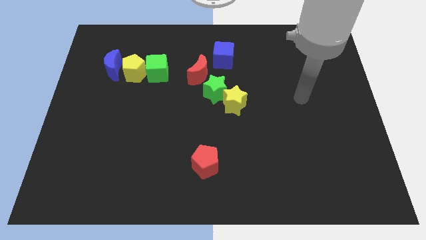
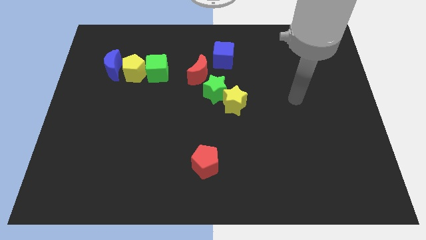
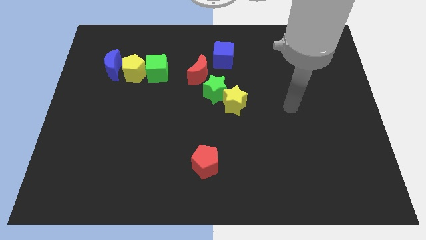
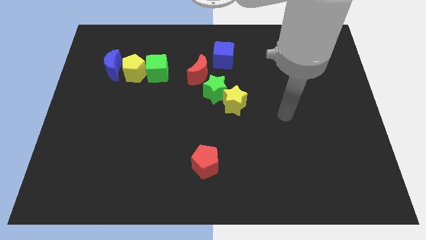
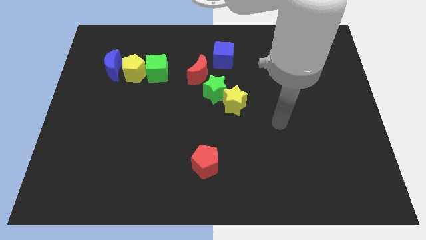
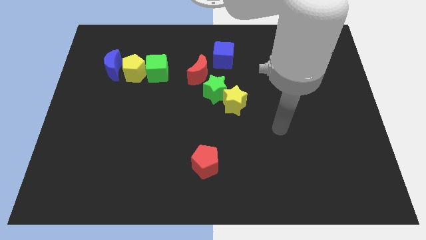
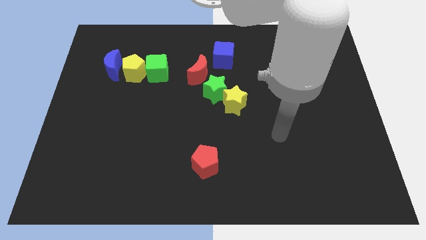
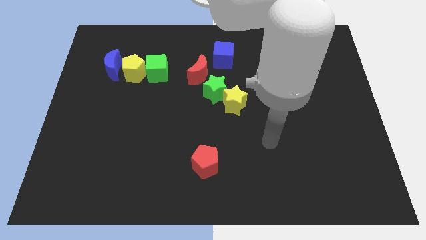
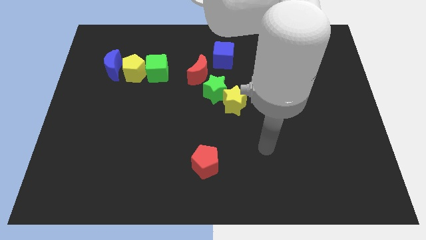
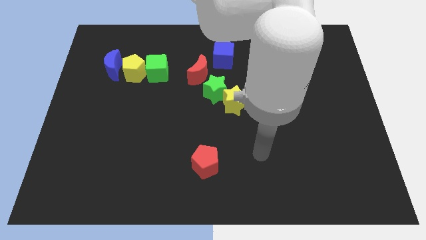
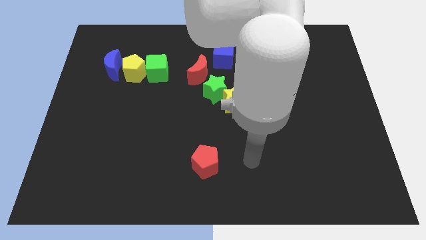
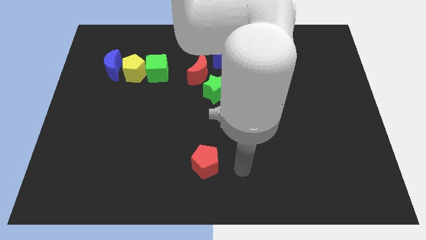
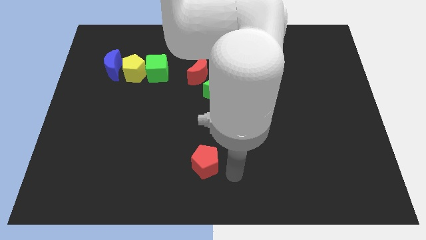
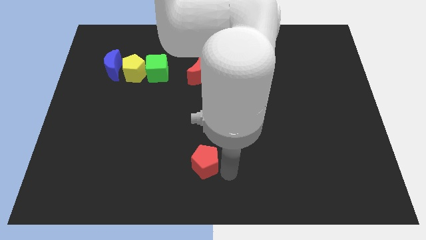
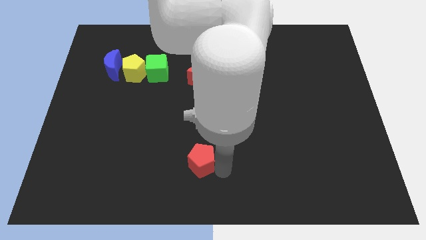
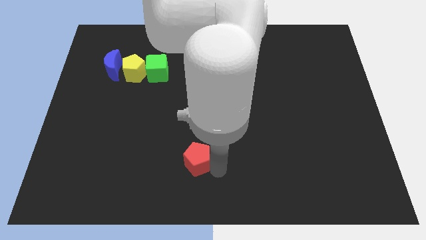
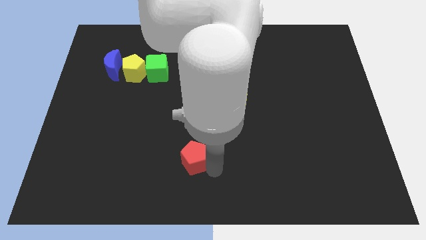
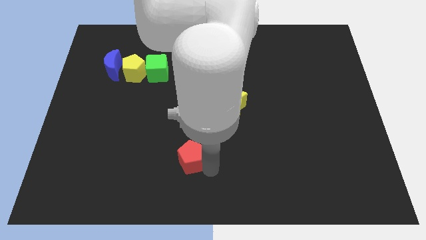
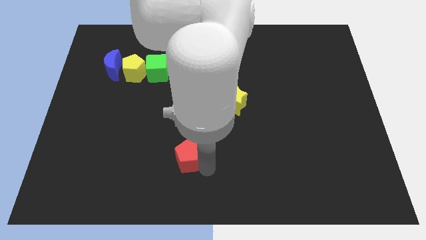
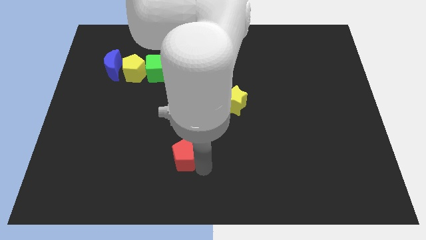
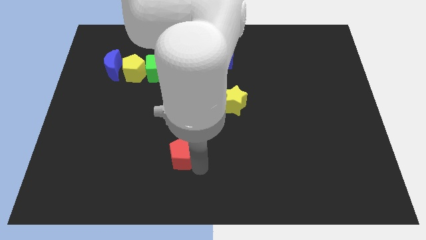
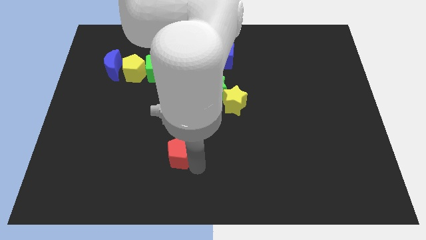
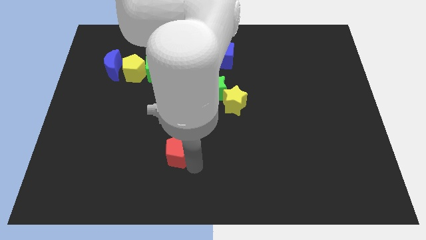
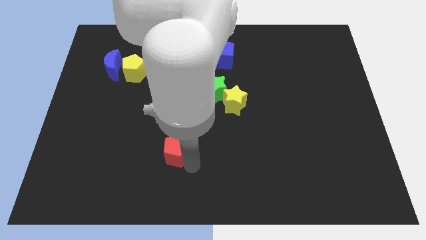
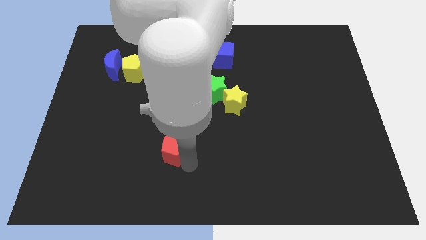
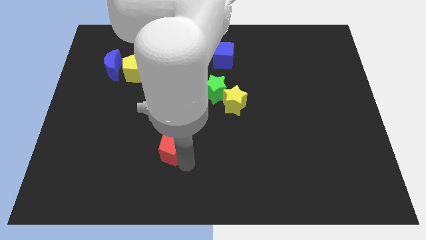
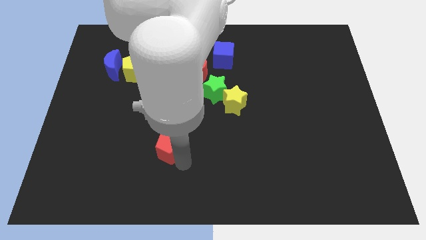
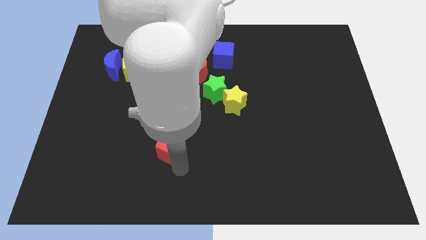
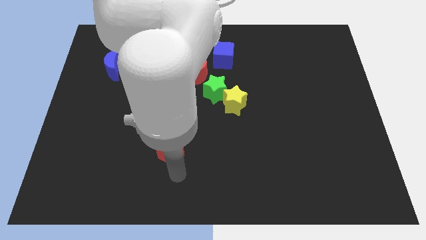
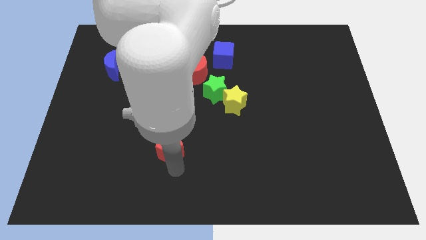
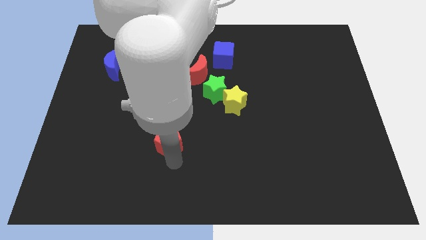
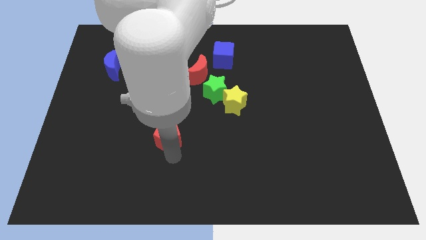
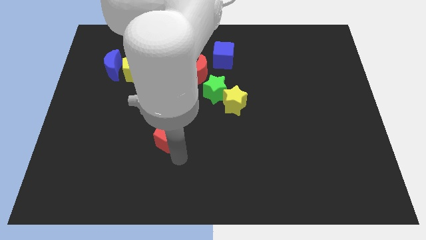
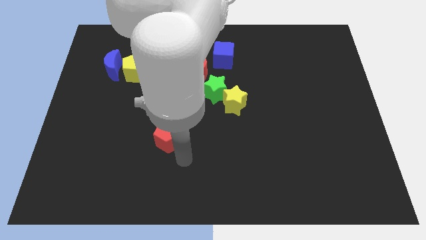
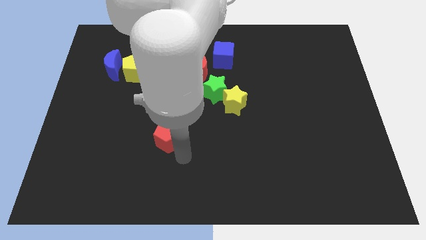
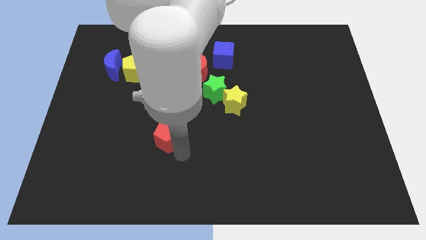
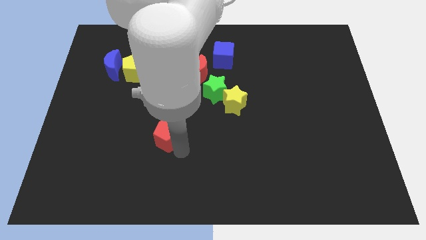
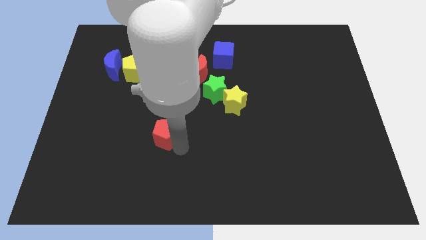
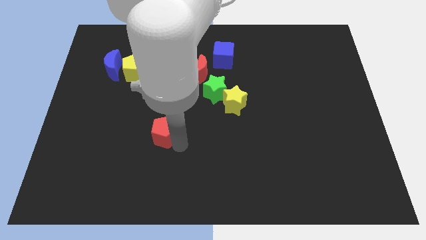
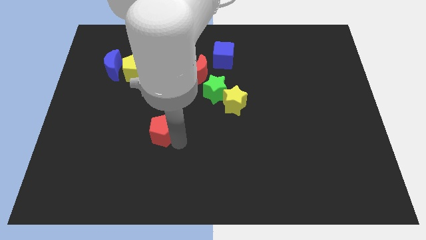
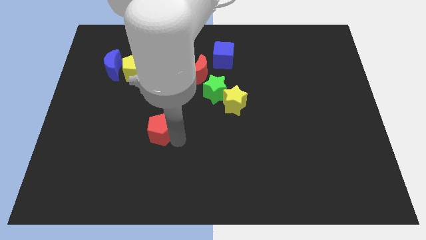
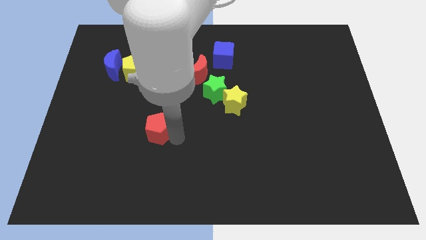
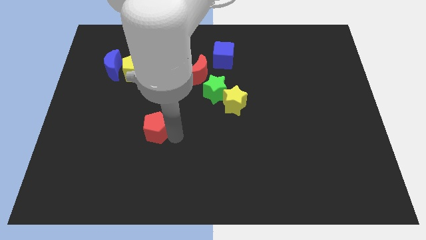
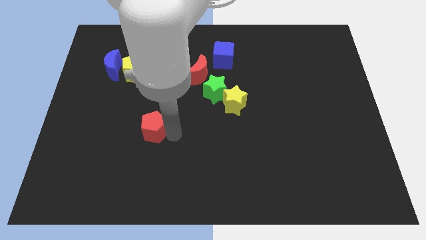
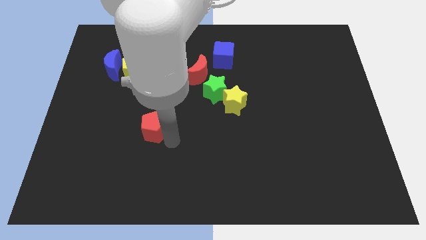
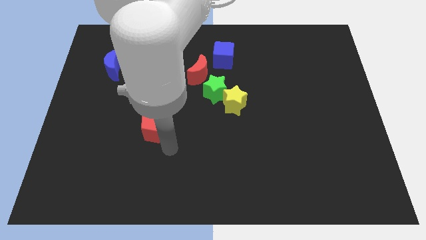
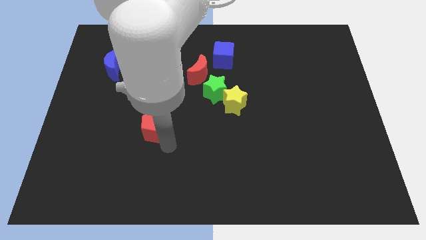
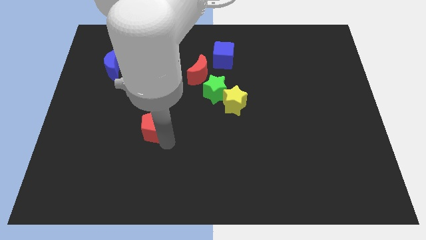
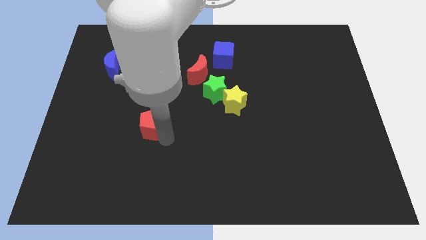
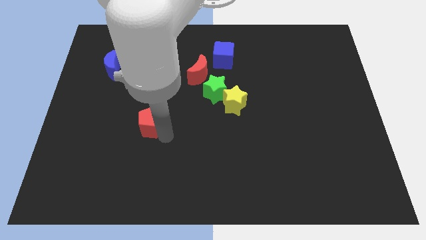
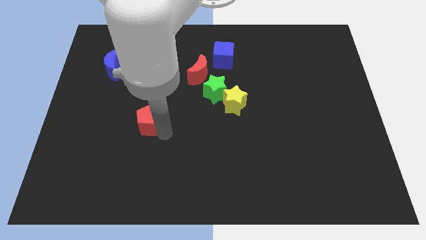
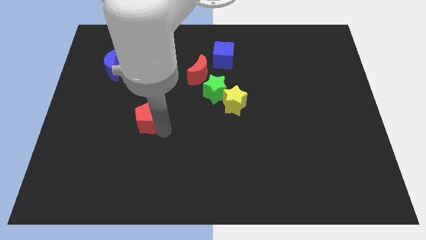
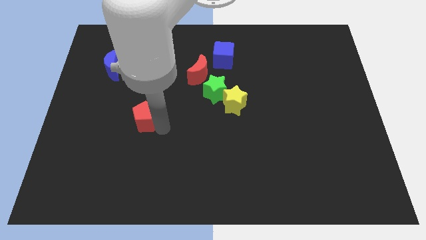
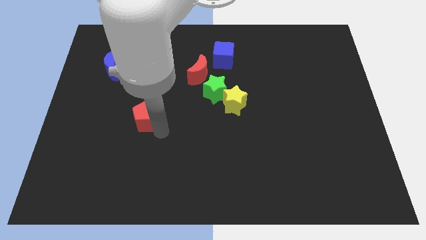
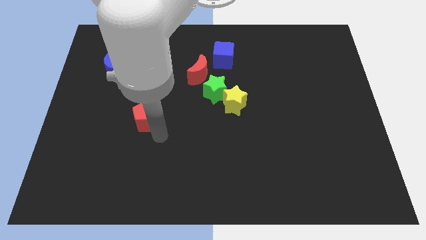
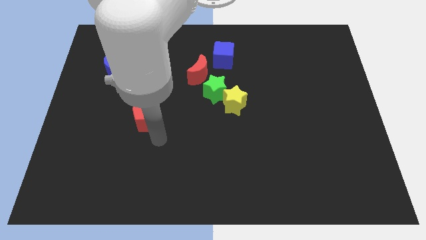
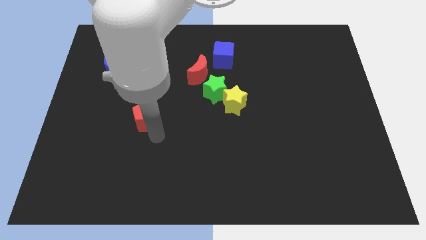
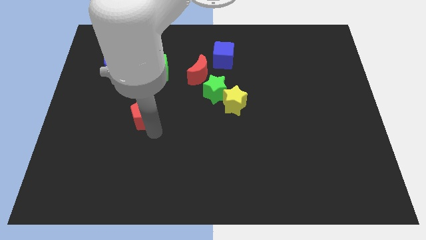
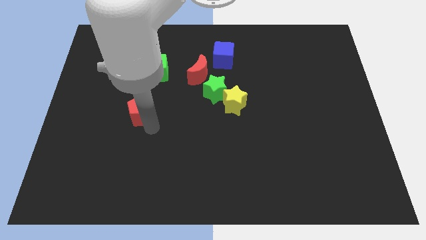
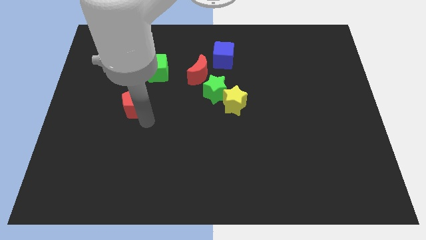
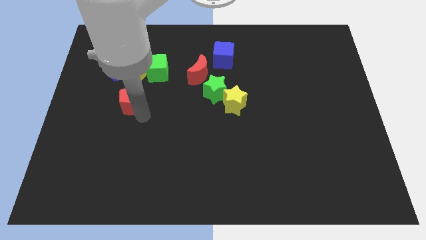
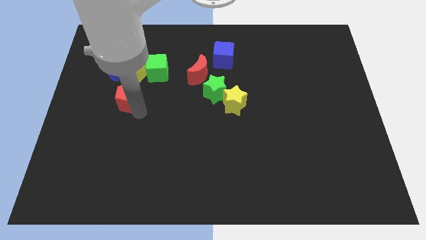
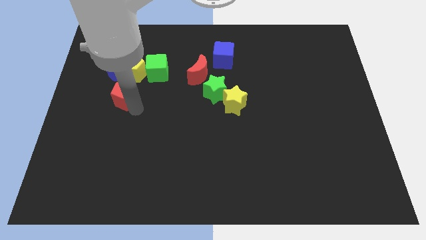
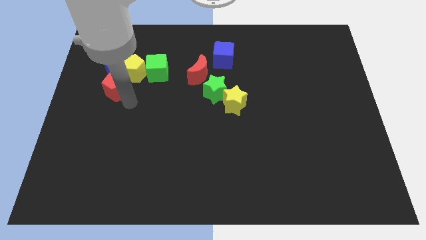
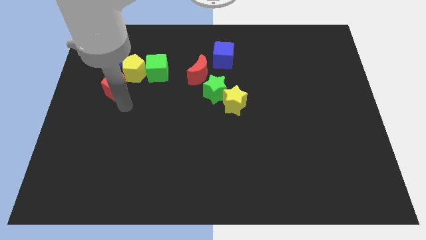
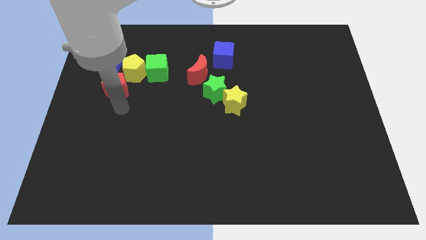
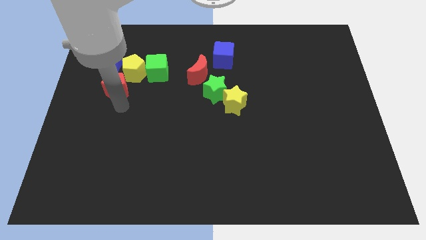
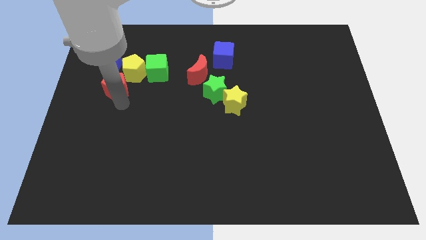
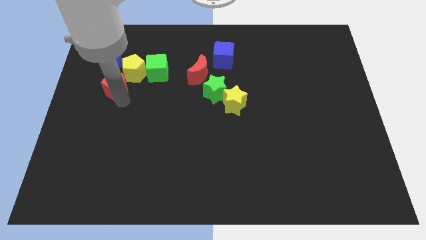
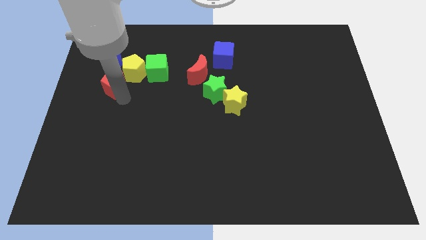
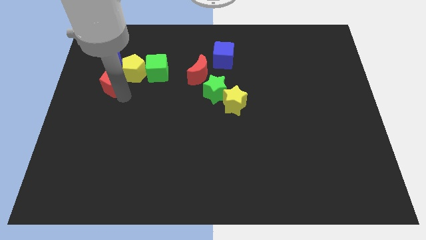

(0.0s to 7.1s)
move the red pentagon next to the blue moon

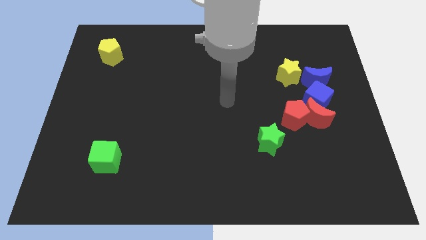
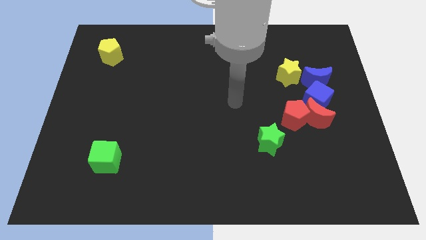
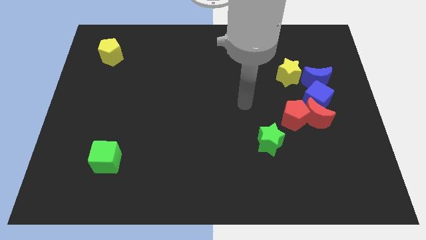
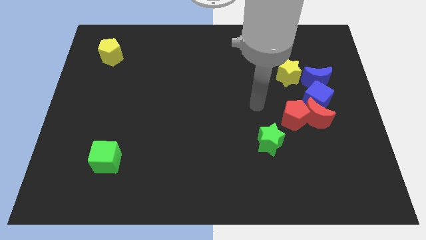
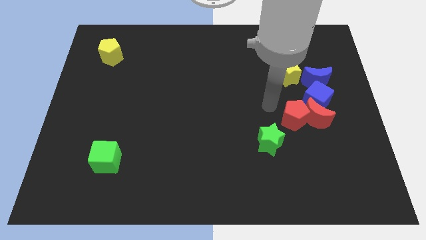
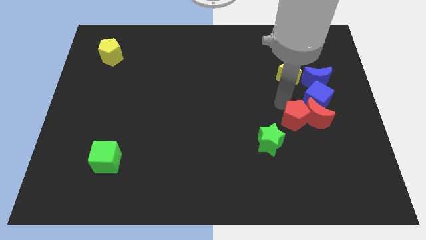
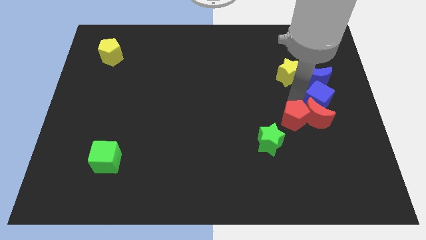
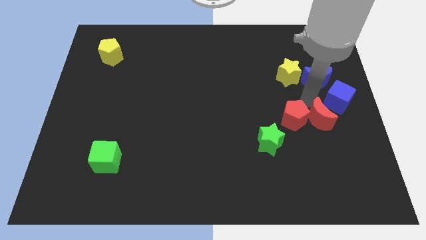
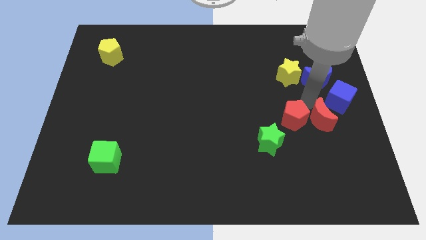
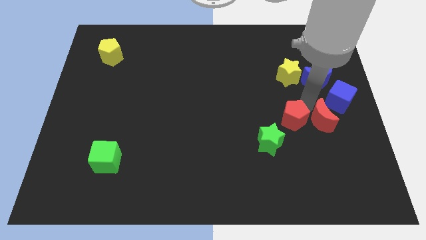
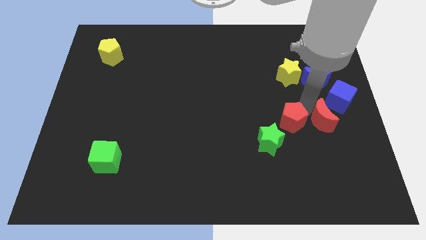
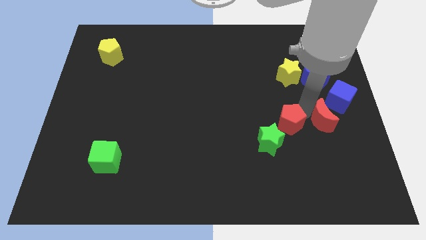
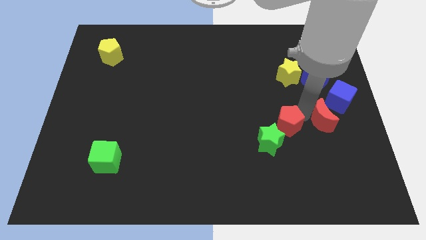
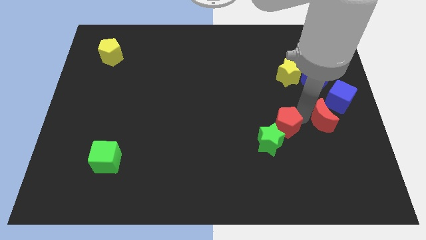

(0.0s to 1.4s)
push the red pentagon close to the green star
